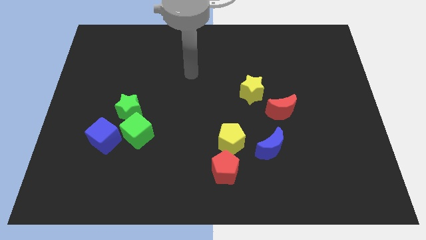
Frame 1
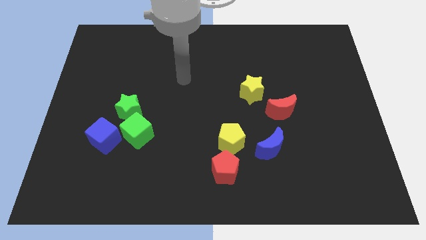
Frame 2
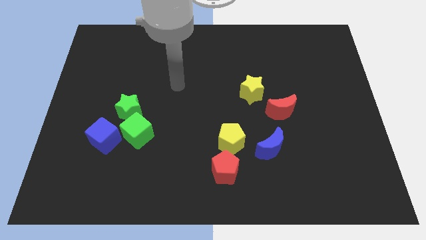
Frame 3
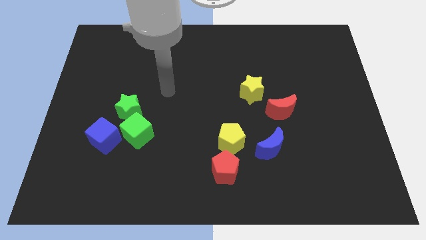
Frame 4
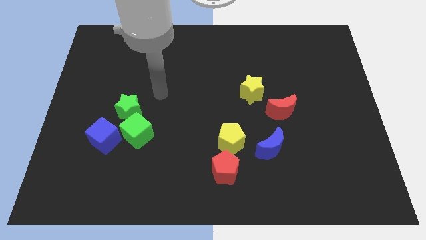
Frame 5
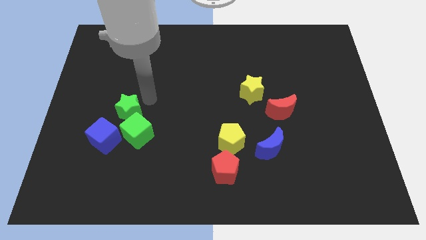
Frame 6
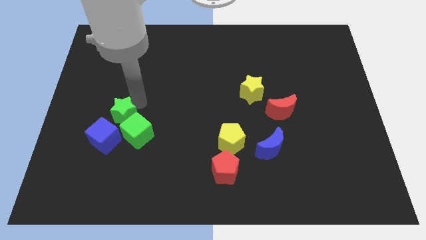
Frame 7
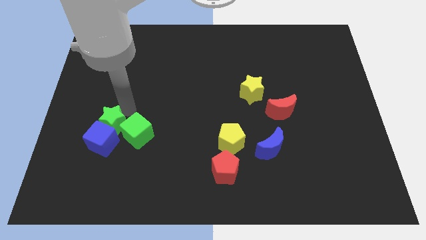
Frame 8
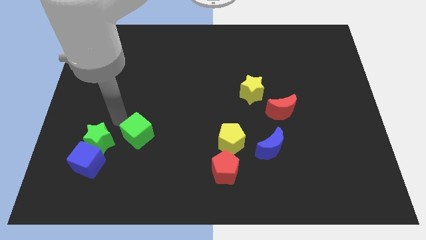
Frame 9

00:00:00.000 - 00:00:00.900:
separate the green cube from the green star and blue cube

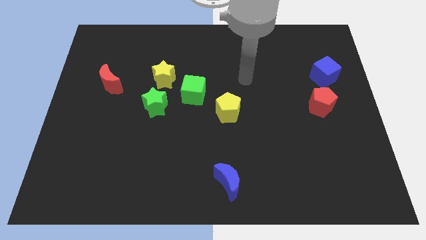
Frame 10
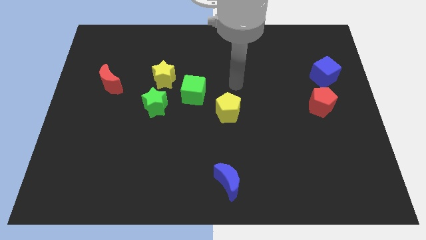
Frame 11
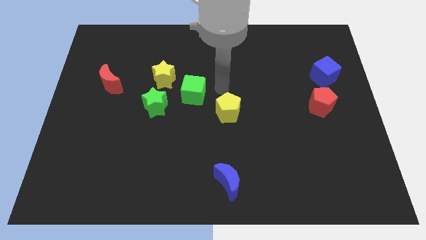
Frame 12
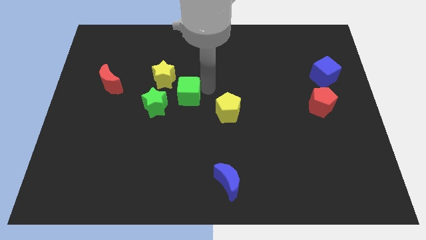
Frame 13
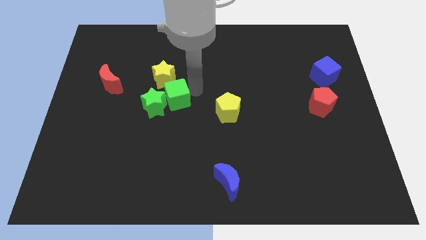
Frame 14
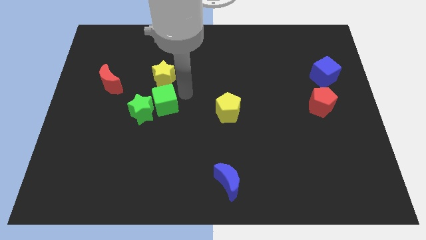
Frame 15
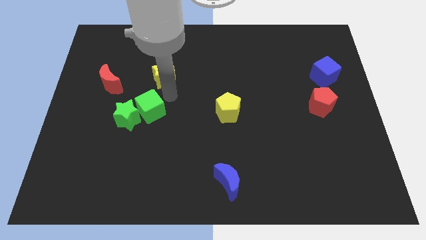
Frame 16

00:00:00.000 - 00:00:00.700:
move the yellow star away from the green cube and green star

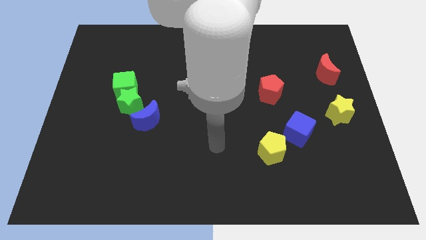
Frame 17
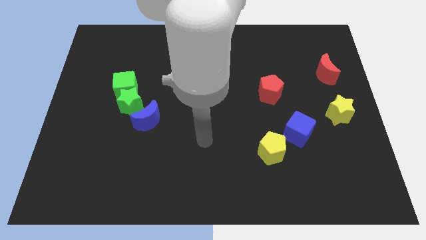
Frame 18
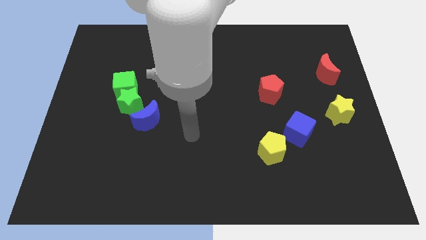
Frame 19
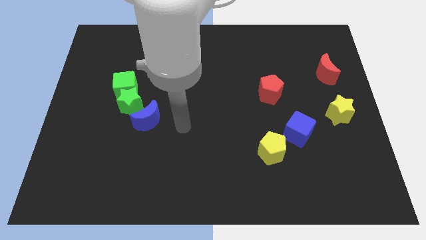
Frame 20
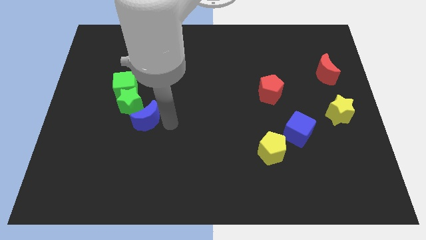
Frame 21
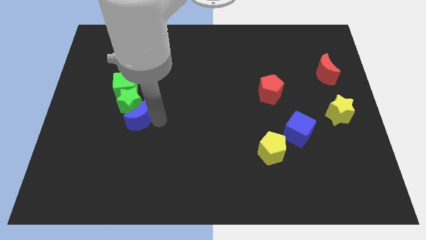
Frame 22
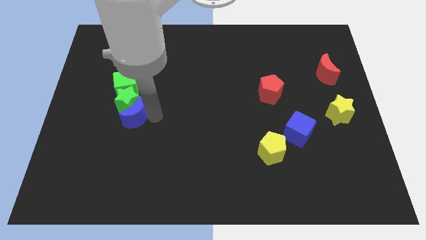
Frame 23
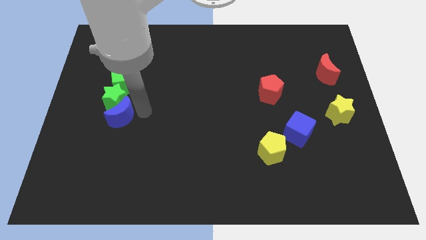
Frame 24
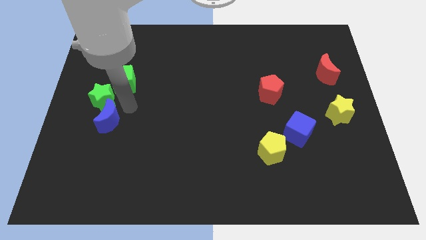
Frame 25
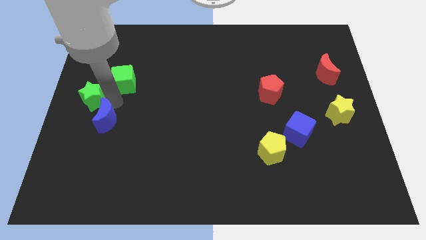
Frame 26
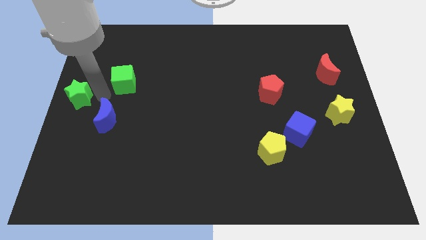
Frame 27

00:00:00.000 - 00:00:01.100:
pull the green cube apart from the green star

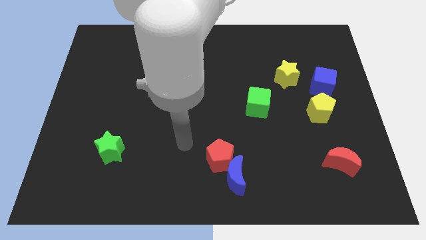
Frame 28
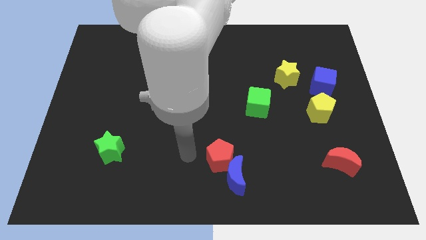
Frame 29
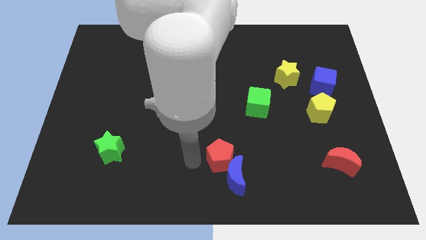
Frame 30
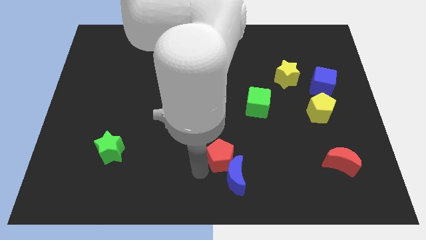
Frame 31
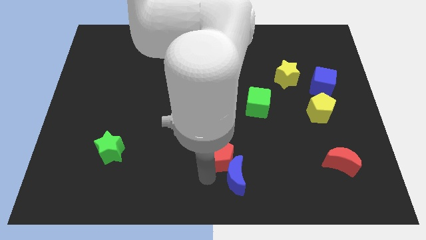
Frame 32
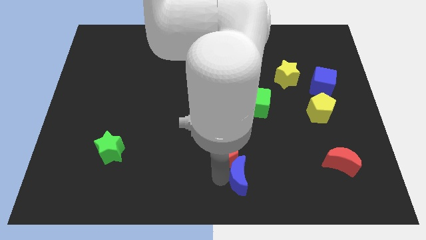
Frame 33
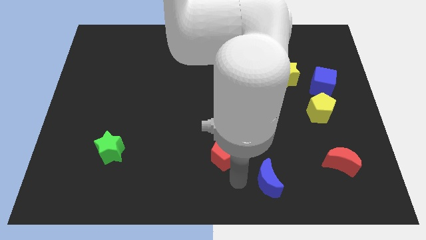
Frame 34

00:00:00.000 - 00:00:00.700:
move the red pentagon away from the blue moon

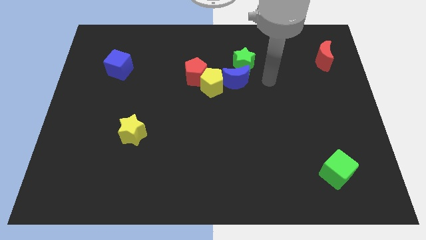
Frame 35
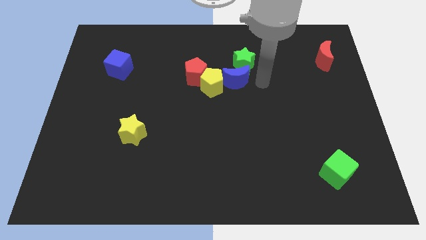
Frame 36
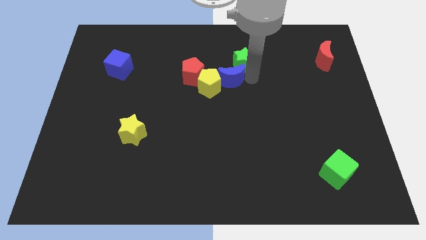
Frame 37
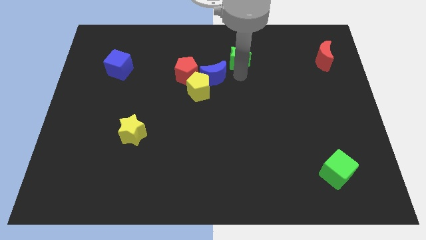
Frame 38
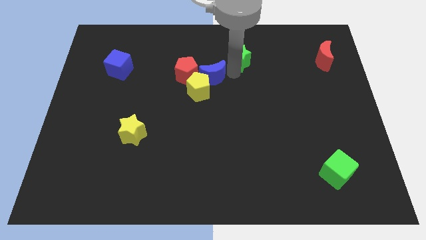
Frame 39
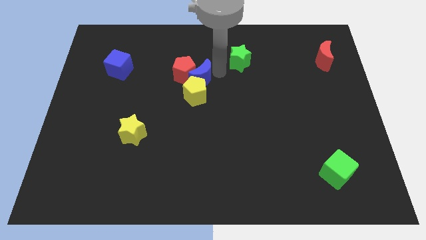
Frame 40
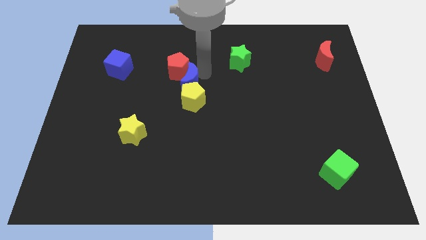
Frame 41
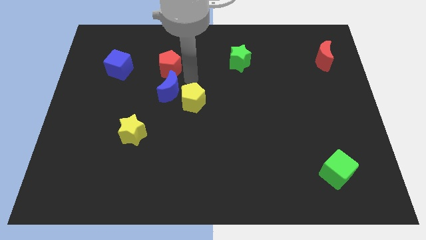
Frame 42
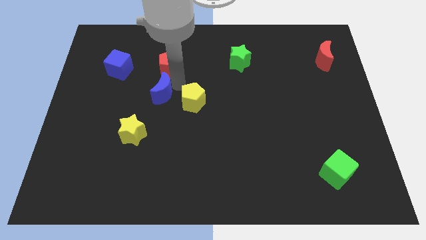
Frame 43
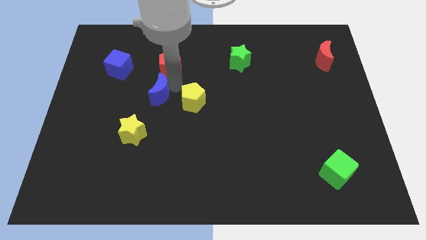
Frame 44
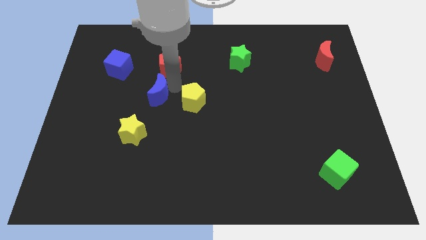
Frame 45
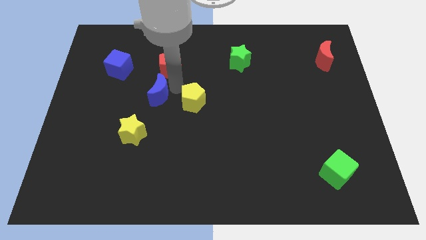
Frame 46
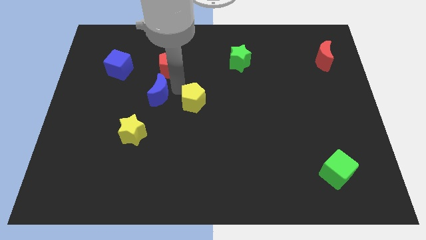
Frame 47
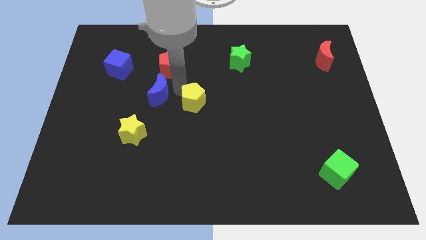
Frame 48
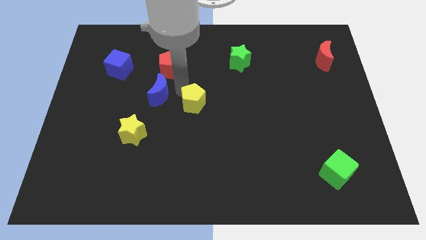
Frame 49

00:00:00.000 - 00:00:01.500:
pull the yellow pentagon apart from the red pentagon and blue moon

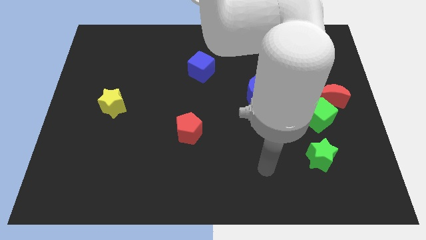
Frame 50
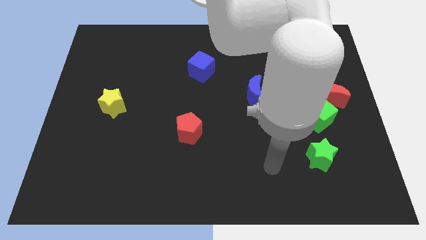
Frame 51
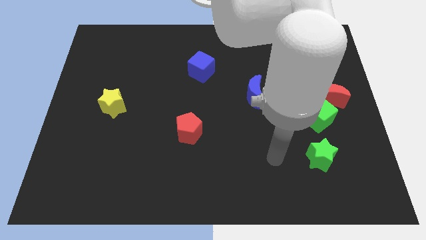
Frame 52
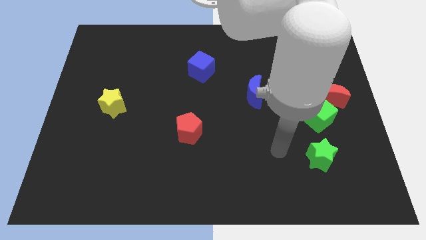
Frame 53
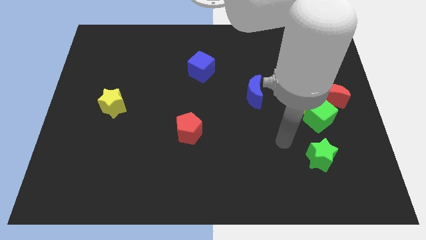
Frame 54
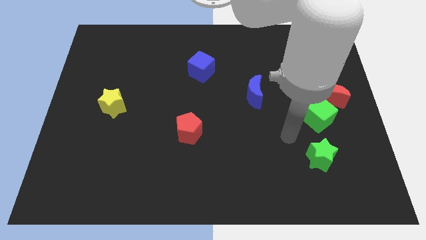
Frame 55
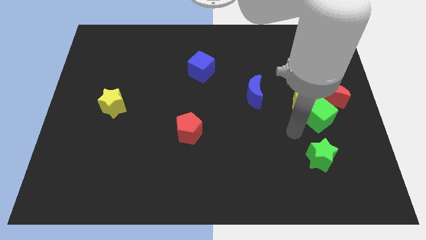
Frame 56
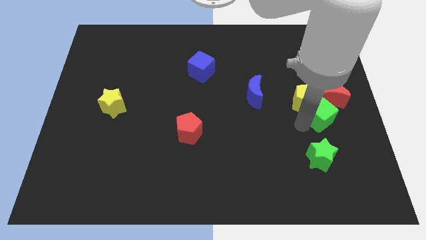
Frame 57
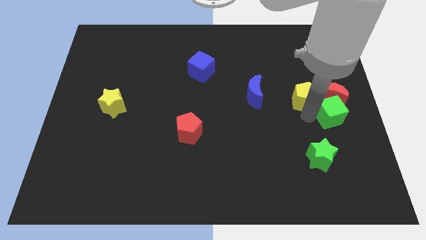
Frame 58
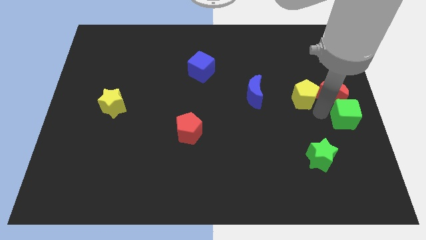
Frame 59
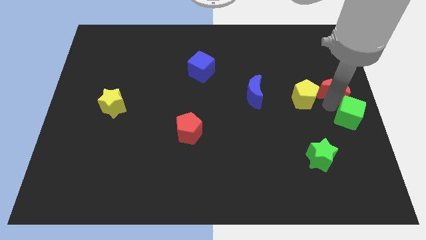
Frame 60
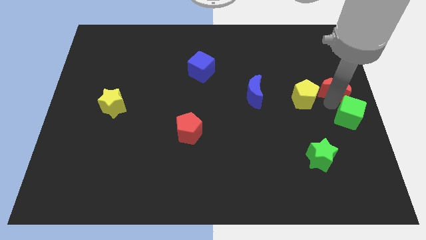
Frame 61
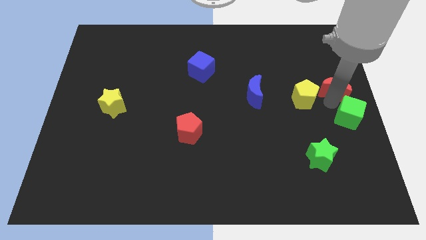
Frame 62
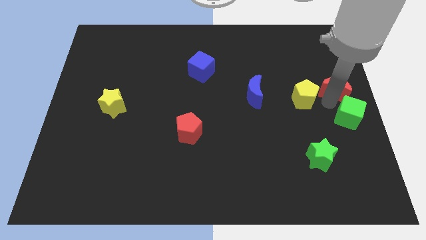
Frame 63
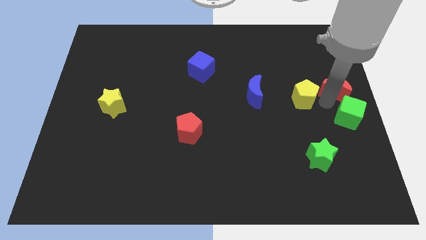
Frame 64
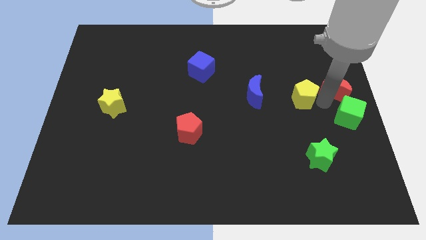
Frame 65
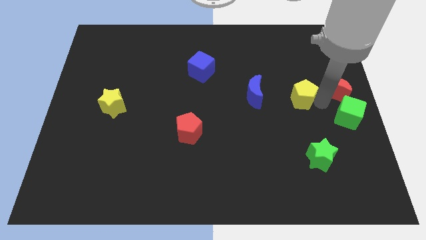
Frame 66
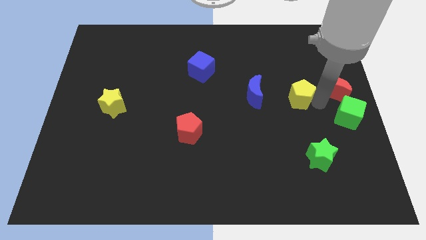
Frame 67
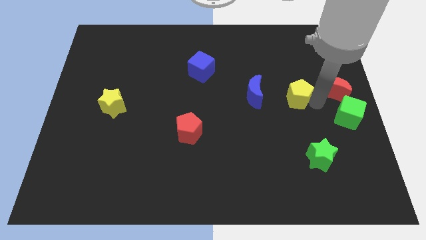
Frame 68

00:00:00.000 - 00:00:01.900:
separate the yellow pentagon from the green cube and red moon

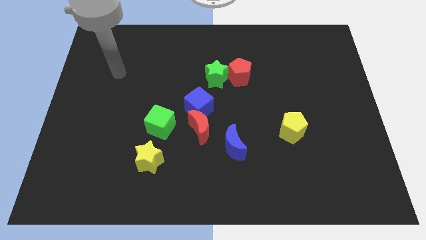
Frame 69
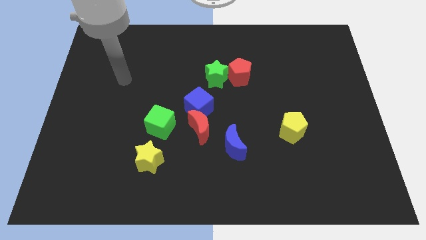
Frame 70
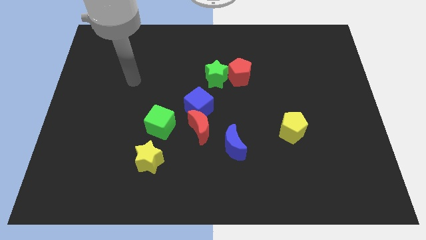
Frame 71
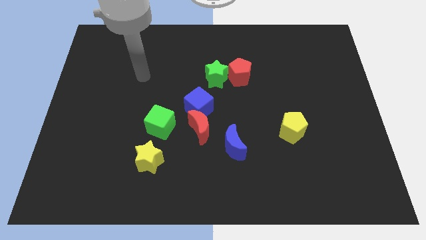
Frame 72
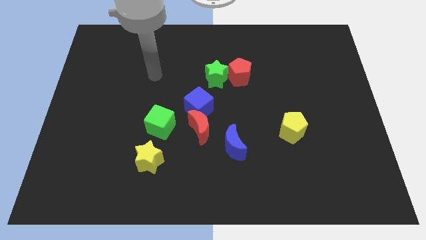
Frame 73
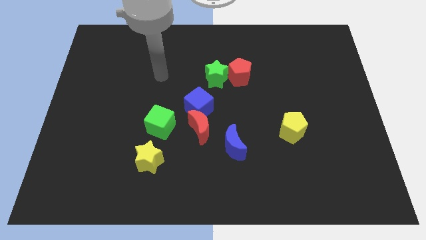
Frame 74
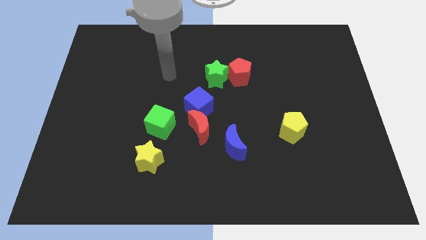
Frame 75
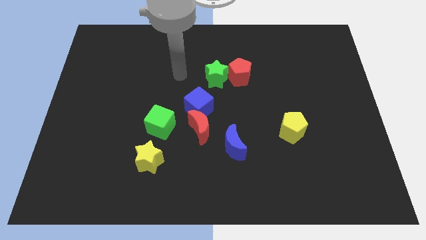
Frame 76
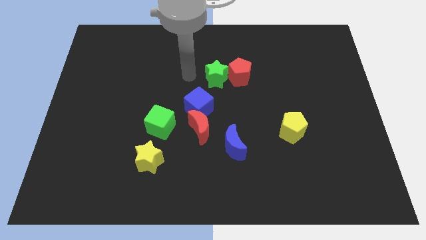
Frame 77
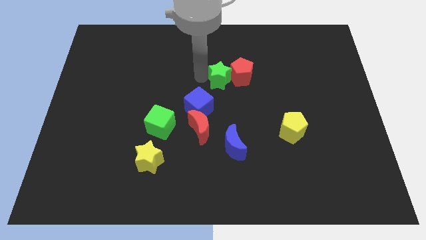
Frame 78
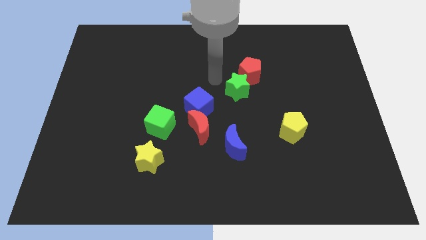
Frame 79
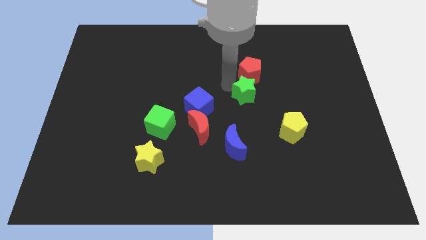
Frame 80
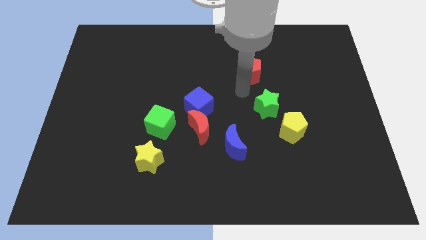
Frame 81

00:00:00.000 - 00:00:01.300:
pull the red pentagon apart from the green star

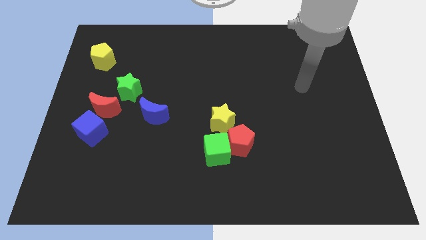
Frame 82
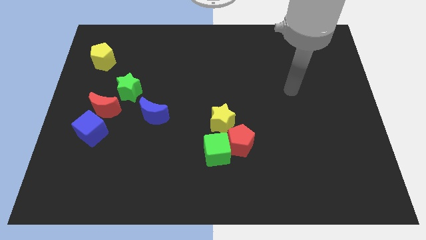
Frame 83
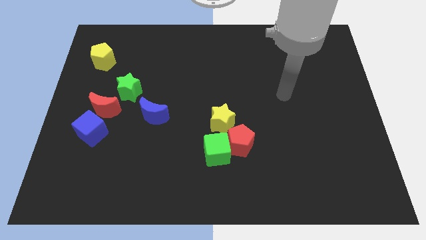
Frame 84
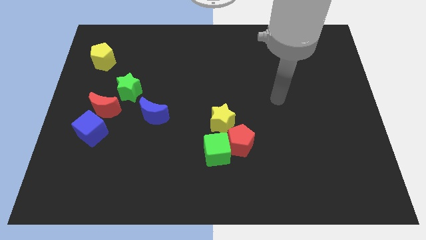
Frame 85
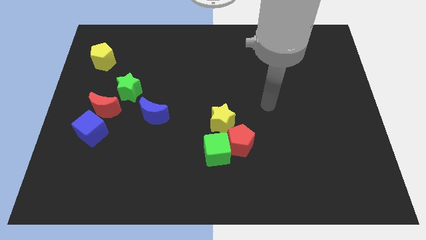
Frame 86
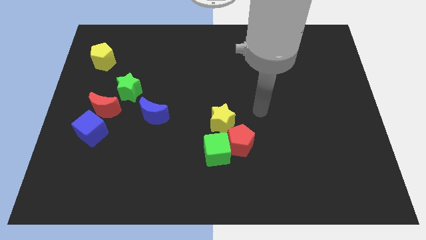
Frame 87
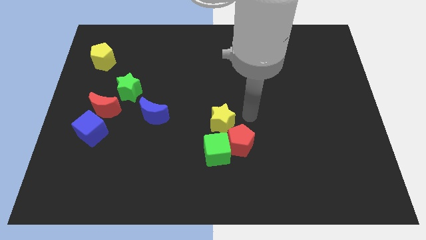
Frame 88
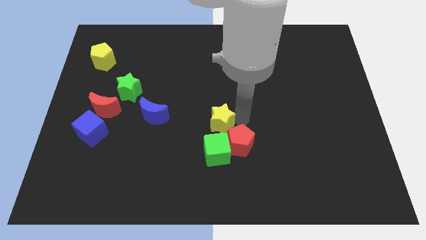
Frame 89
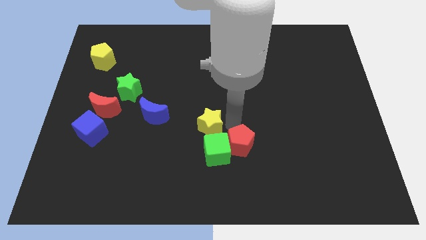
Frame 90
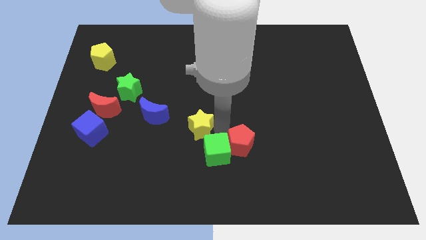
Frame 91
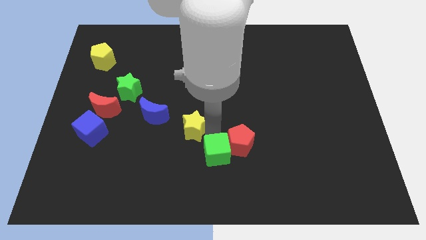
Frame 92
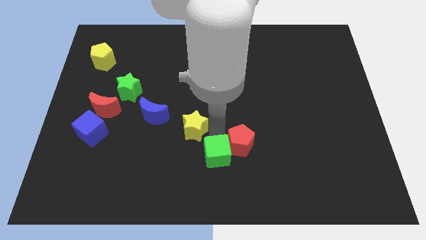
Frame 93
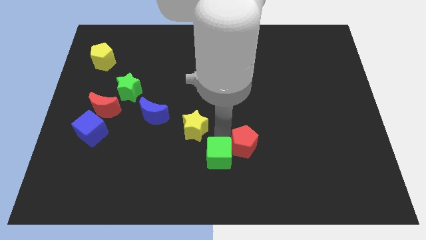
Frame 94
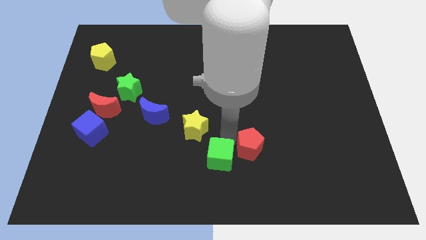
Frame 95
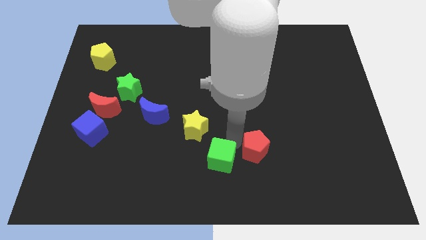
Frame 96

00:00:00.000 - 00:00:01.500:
move the red pentagon away from the green cube and yellow star
